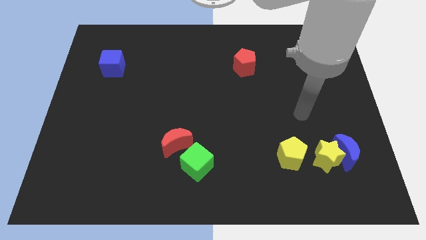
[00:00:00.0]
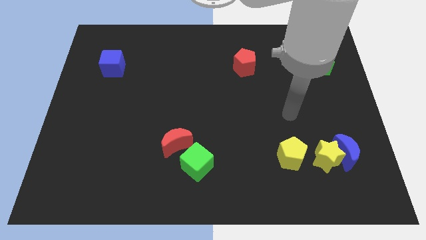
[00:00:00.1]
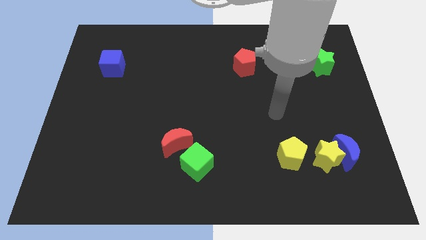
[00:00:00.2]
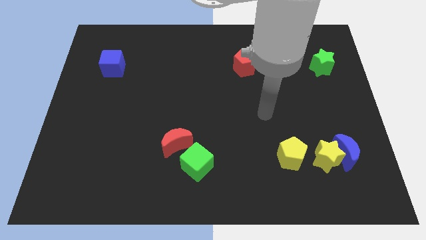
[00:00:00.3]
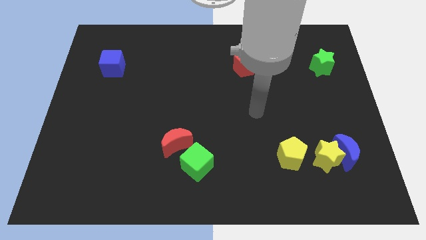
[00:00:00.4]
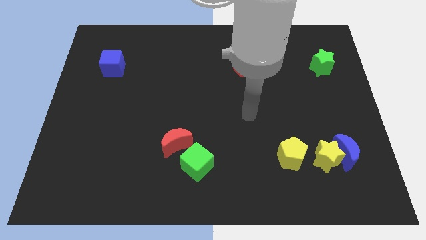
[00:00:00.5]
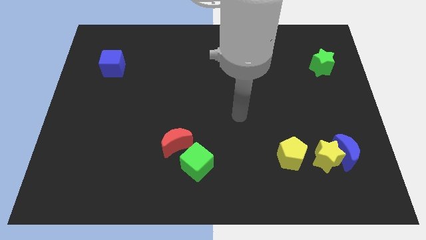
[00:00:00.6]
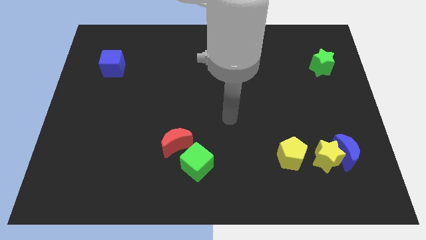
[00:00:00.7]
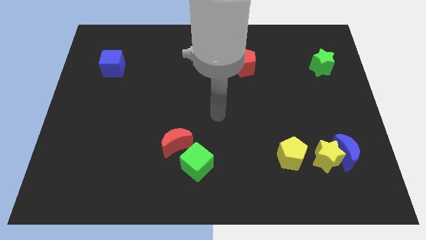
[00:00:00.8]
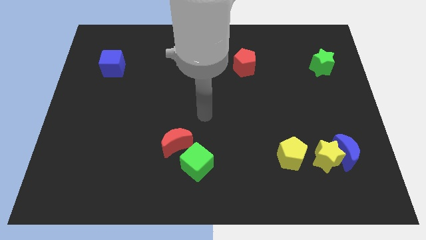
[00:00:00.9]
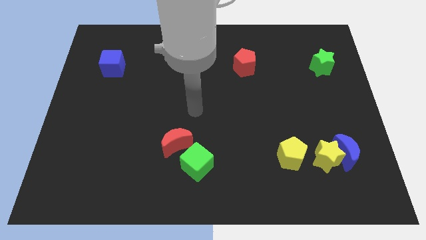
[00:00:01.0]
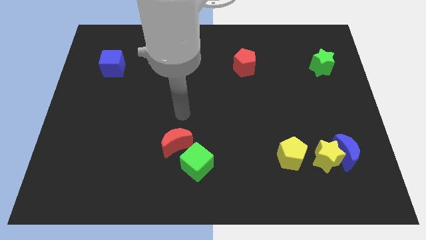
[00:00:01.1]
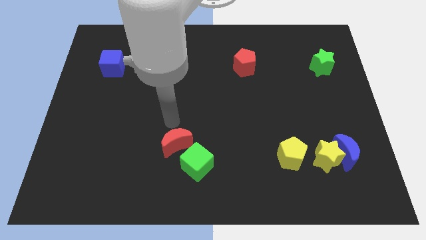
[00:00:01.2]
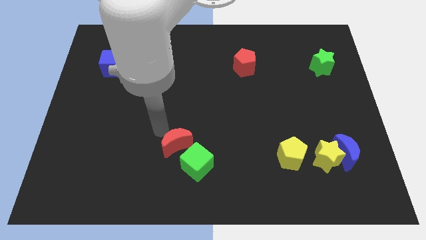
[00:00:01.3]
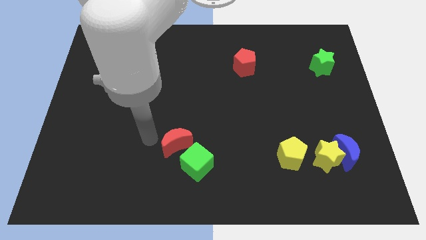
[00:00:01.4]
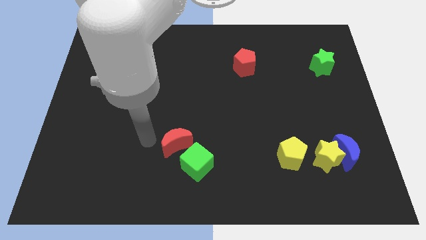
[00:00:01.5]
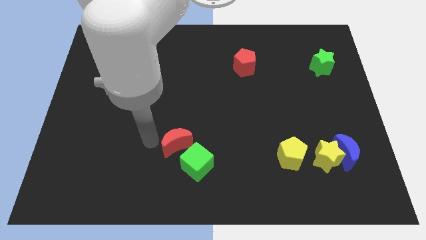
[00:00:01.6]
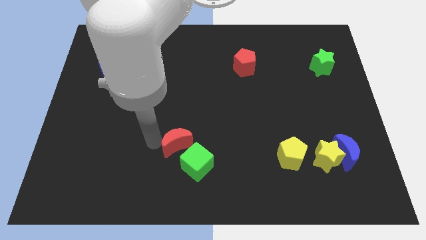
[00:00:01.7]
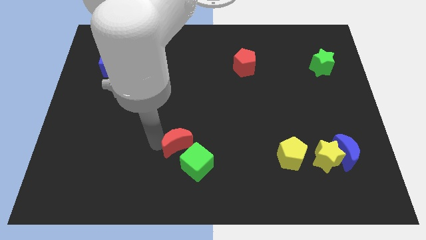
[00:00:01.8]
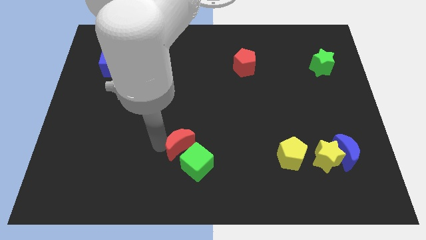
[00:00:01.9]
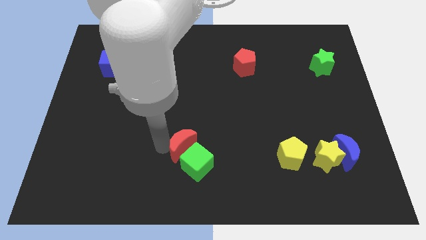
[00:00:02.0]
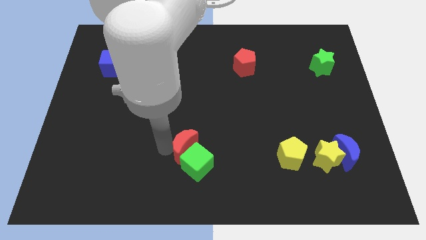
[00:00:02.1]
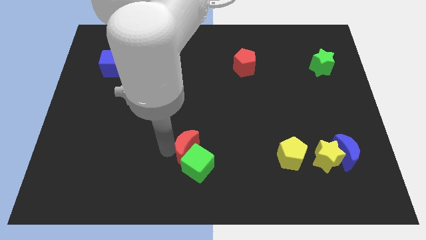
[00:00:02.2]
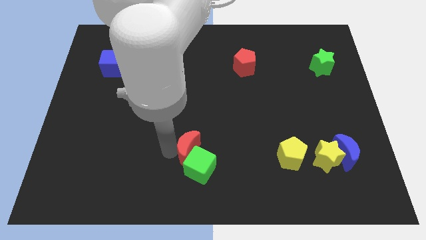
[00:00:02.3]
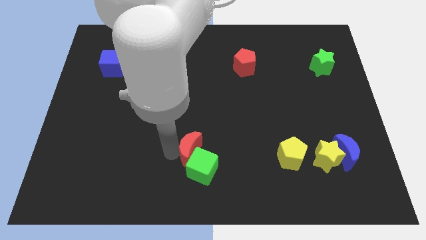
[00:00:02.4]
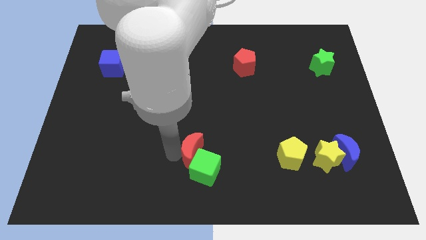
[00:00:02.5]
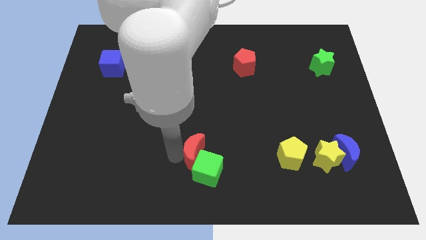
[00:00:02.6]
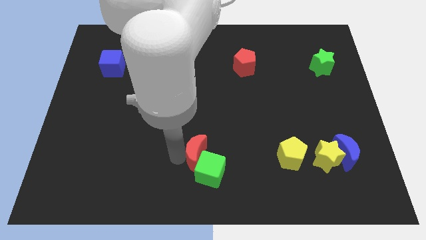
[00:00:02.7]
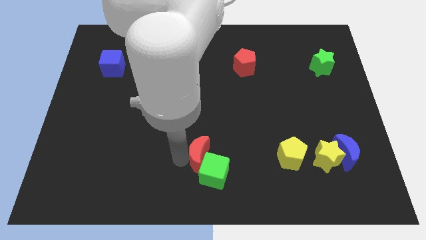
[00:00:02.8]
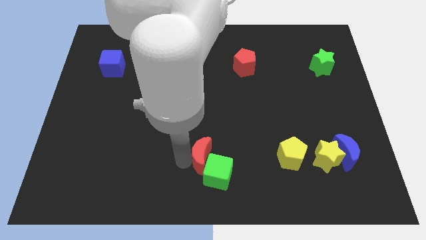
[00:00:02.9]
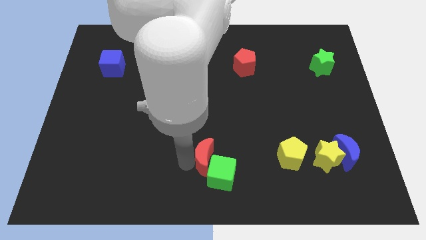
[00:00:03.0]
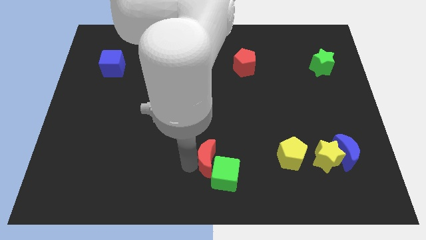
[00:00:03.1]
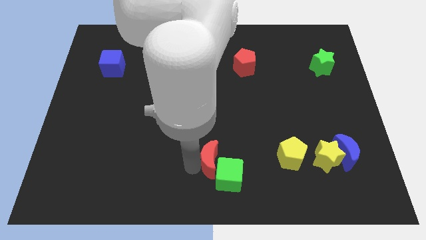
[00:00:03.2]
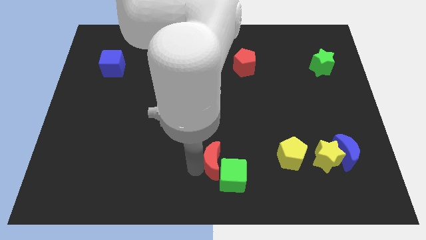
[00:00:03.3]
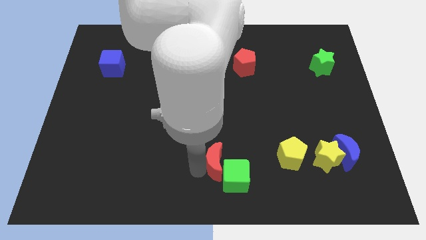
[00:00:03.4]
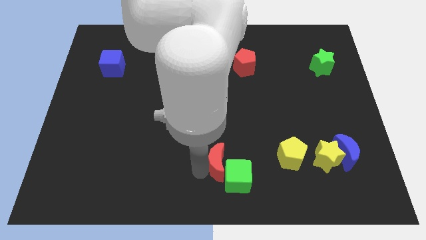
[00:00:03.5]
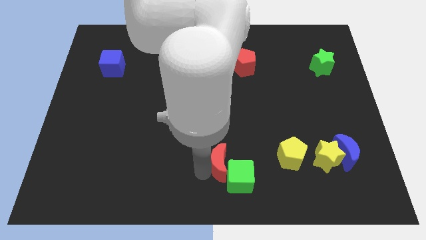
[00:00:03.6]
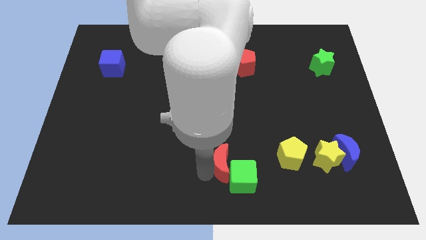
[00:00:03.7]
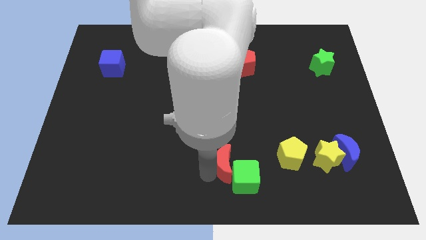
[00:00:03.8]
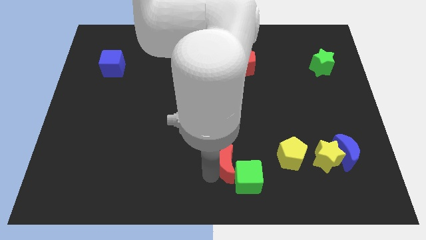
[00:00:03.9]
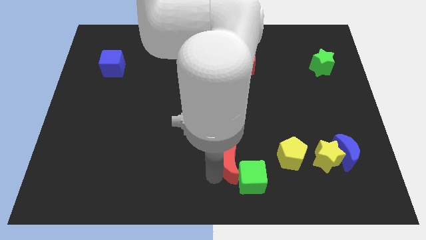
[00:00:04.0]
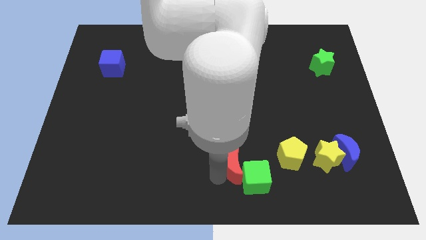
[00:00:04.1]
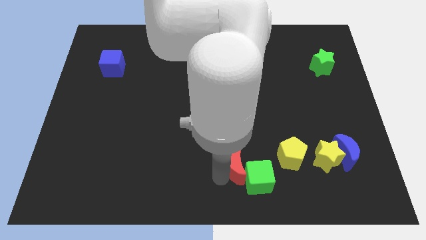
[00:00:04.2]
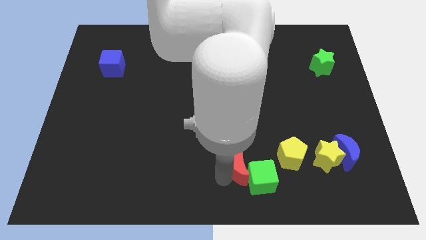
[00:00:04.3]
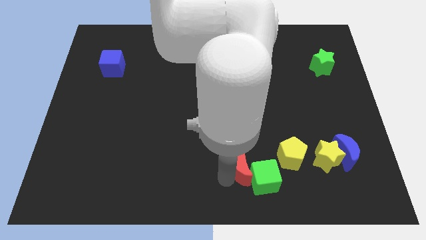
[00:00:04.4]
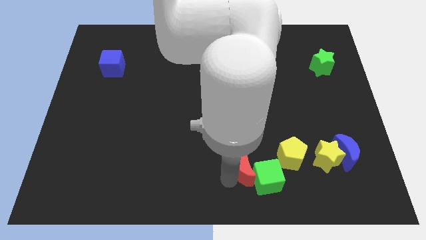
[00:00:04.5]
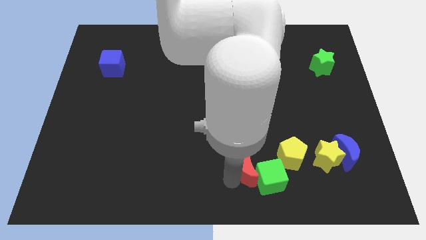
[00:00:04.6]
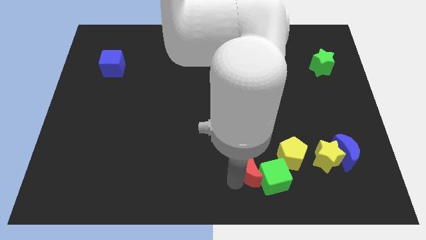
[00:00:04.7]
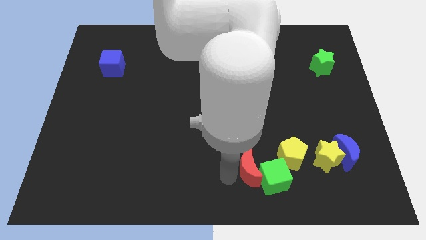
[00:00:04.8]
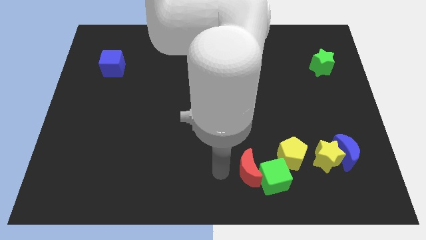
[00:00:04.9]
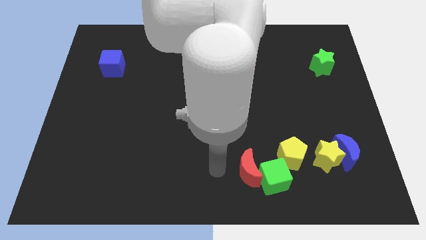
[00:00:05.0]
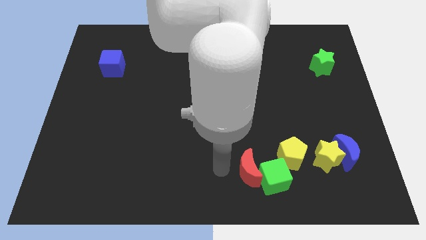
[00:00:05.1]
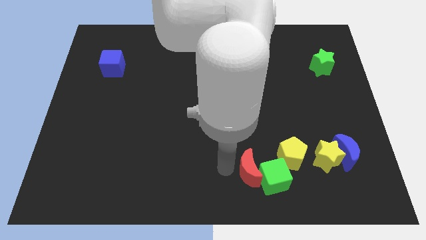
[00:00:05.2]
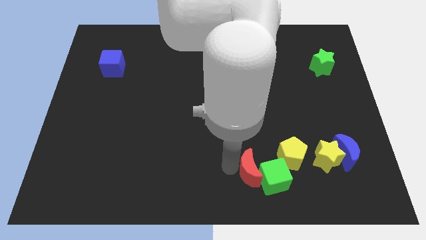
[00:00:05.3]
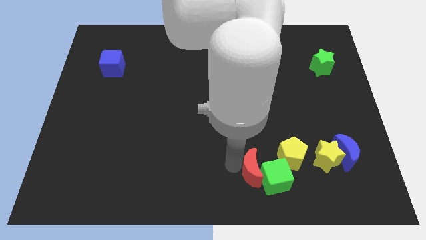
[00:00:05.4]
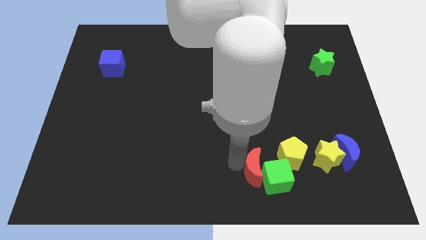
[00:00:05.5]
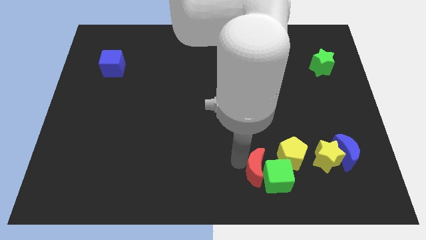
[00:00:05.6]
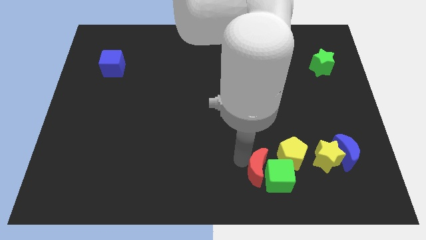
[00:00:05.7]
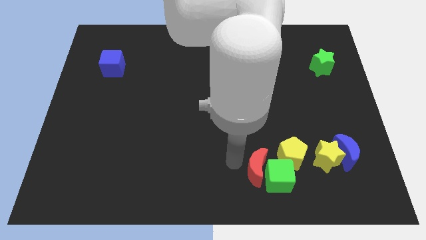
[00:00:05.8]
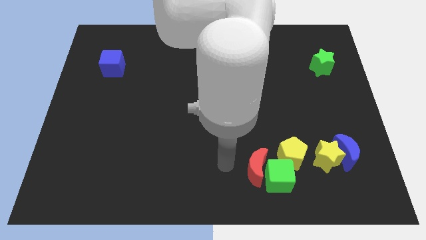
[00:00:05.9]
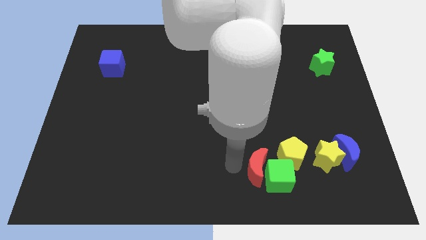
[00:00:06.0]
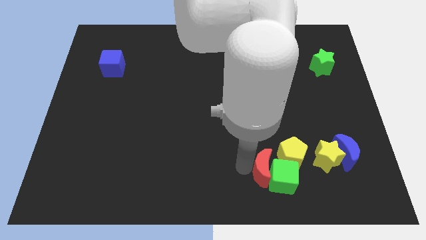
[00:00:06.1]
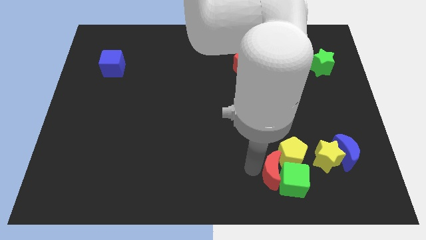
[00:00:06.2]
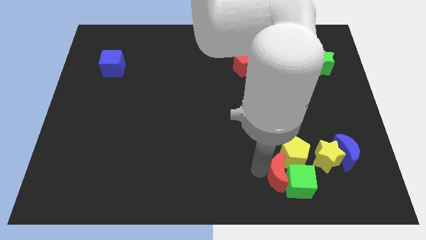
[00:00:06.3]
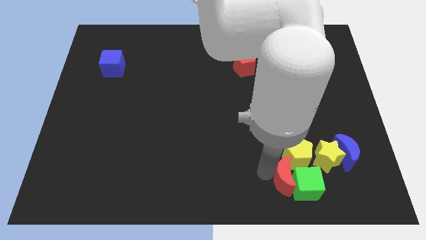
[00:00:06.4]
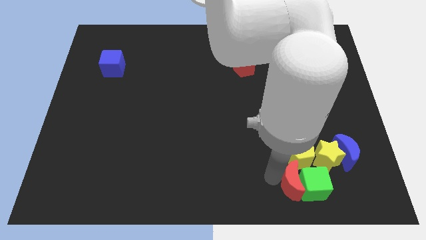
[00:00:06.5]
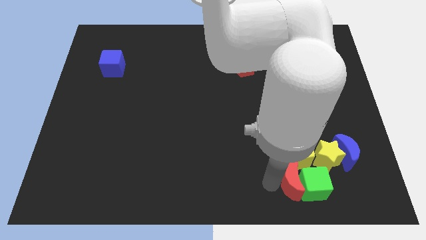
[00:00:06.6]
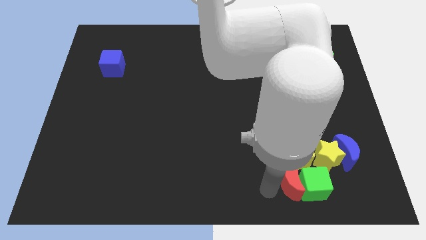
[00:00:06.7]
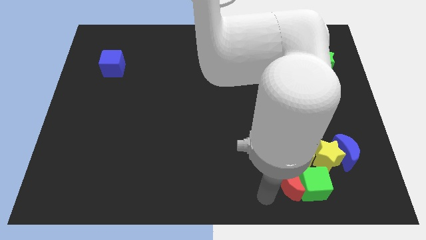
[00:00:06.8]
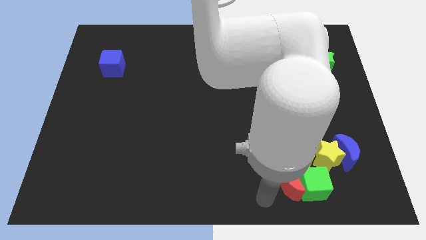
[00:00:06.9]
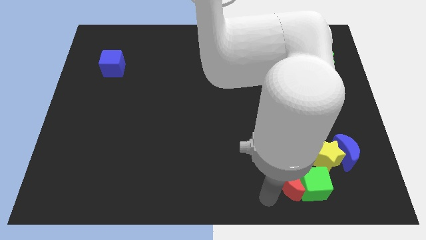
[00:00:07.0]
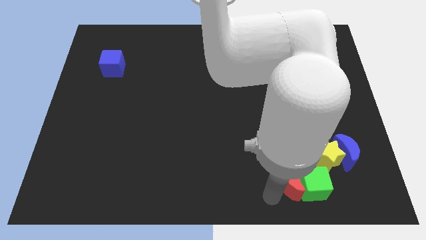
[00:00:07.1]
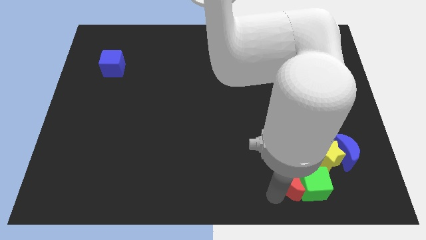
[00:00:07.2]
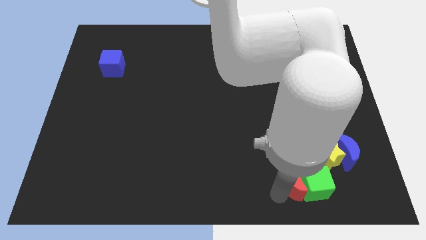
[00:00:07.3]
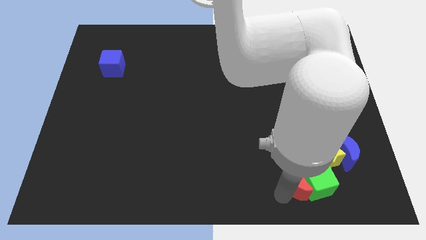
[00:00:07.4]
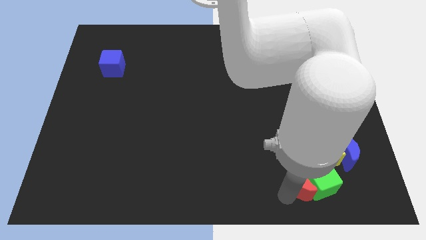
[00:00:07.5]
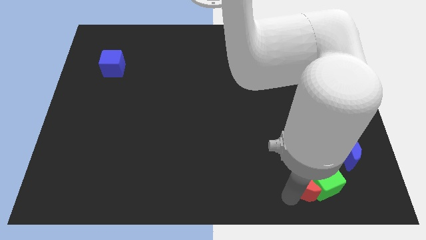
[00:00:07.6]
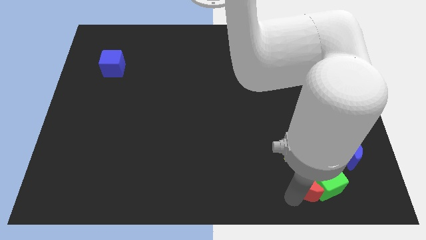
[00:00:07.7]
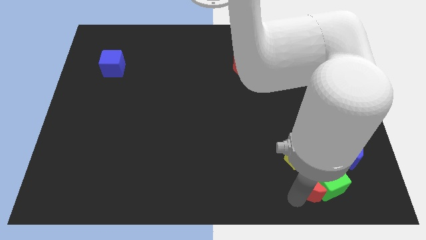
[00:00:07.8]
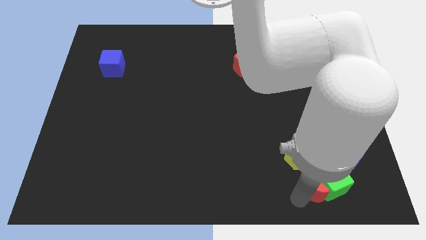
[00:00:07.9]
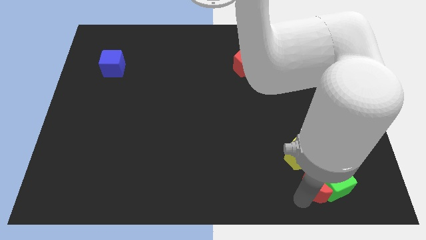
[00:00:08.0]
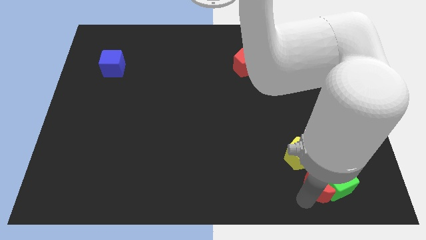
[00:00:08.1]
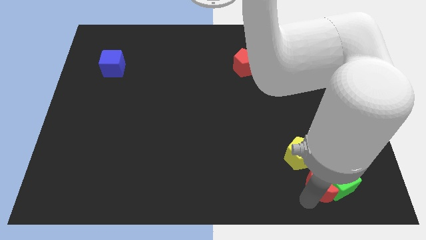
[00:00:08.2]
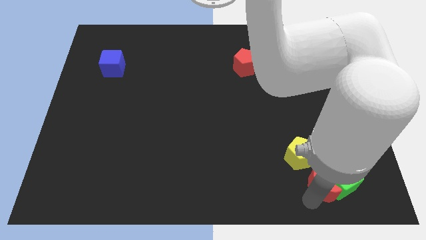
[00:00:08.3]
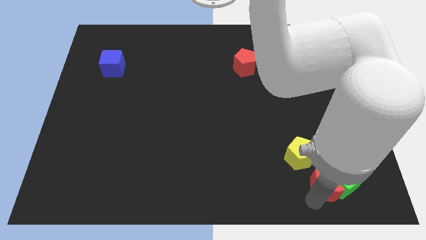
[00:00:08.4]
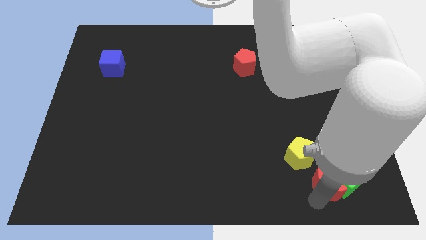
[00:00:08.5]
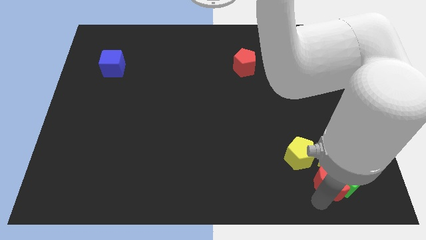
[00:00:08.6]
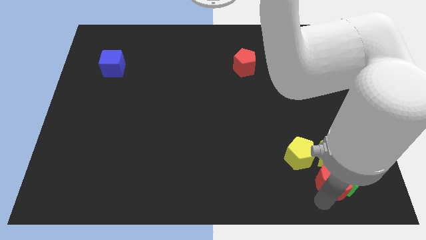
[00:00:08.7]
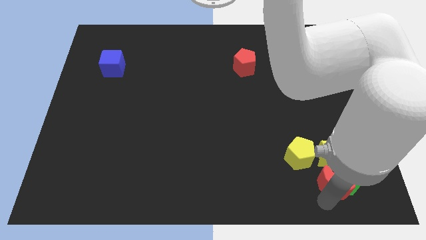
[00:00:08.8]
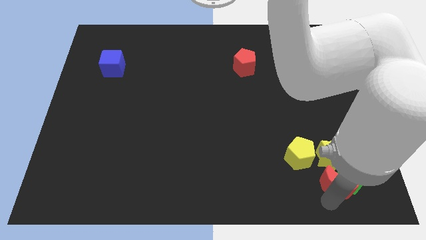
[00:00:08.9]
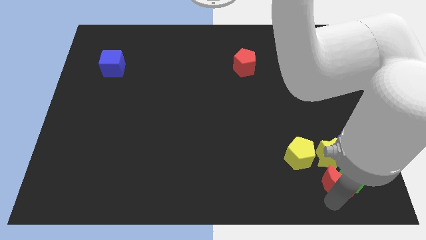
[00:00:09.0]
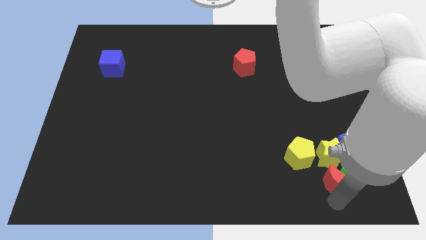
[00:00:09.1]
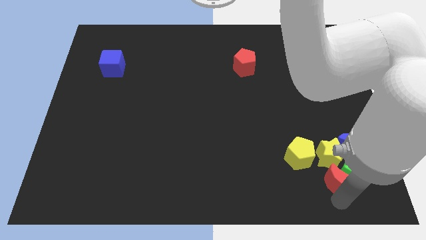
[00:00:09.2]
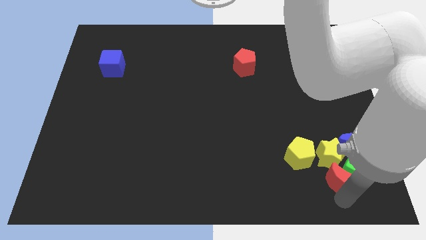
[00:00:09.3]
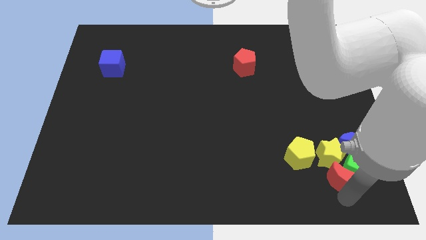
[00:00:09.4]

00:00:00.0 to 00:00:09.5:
push the red moon towards the yellow star
